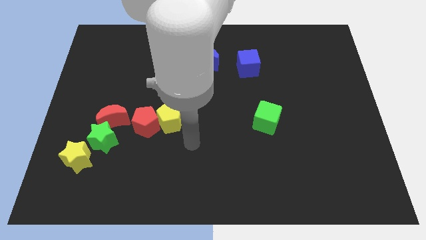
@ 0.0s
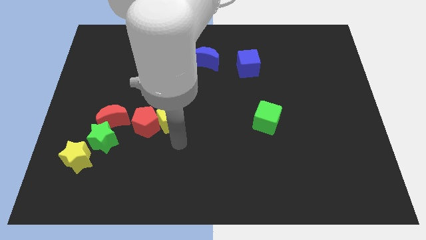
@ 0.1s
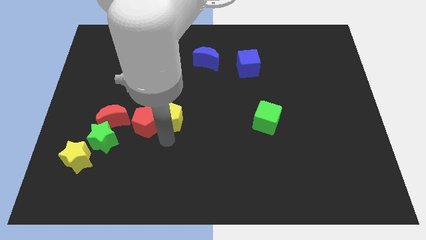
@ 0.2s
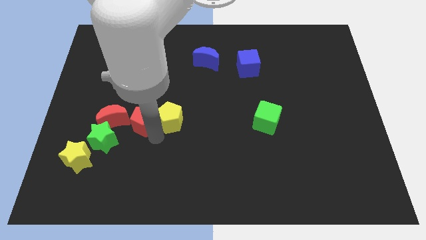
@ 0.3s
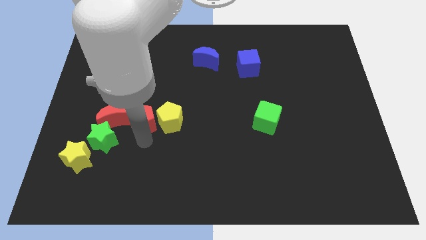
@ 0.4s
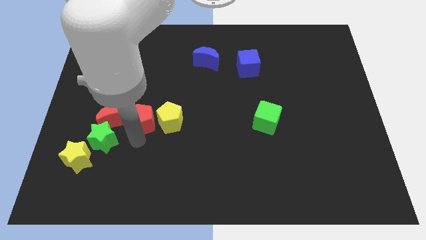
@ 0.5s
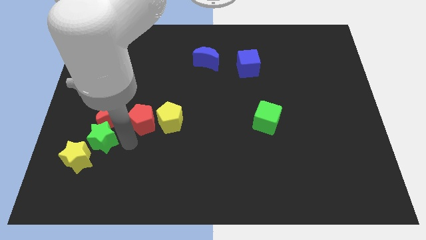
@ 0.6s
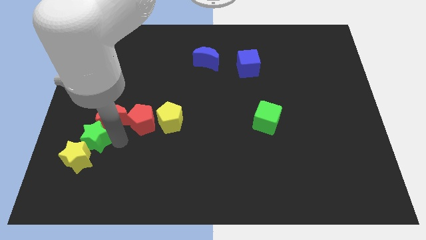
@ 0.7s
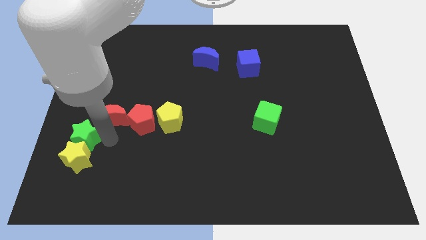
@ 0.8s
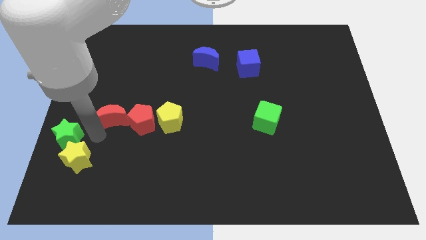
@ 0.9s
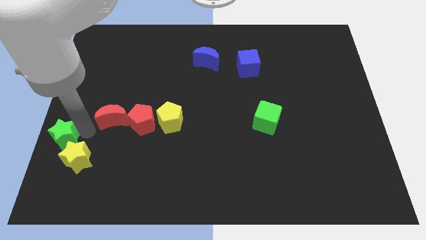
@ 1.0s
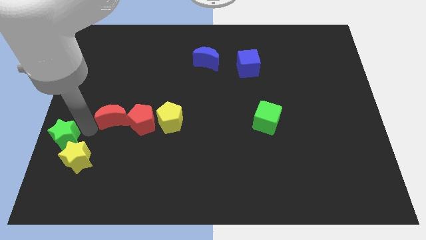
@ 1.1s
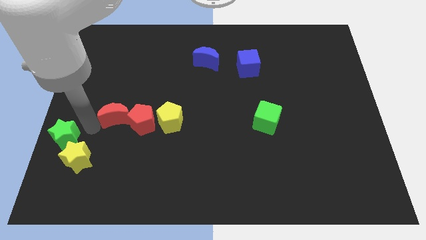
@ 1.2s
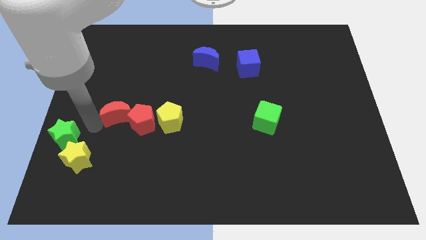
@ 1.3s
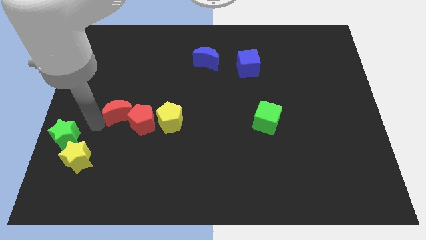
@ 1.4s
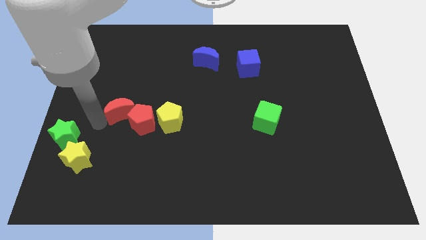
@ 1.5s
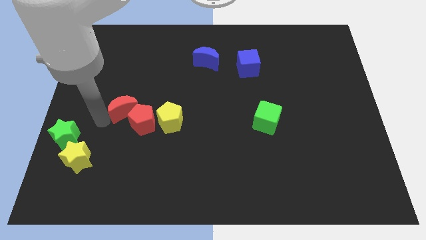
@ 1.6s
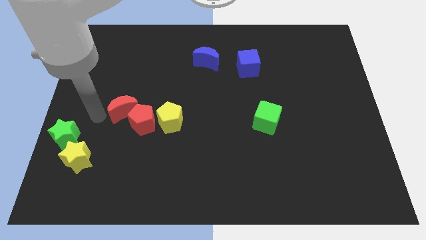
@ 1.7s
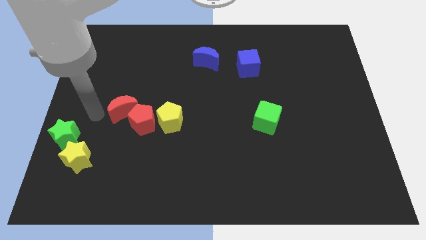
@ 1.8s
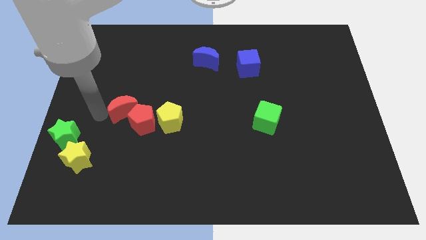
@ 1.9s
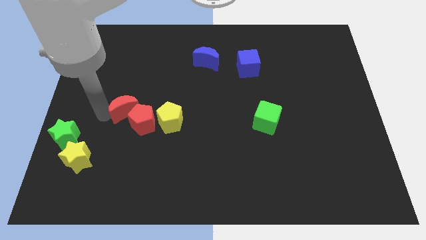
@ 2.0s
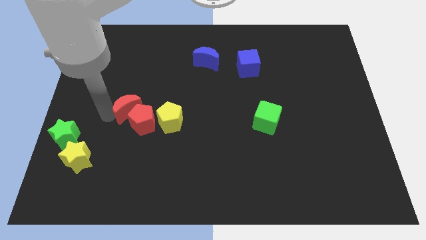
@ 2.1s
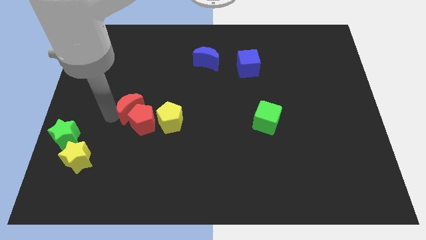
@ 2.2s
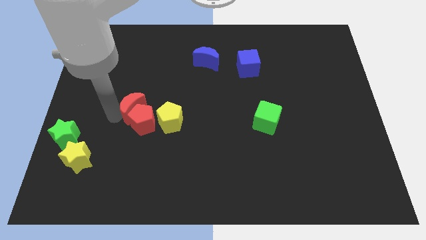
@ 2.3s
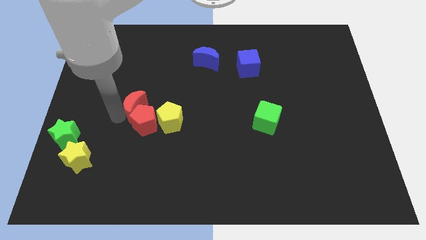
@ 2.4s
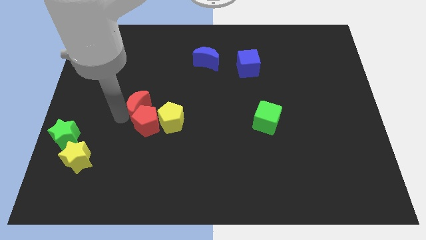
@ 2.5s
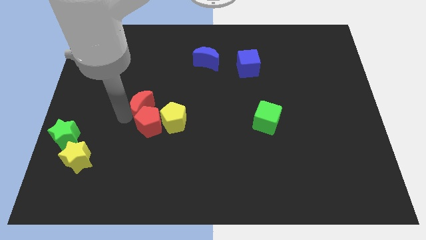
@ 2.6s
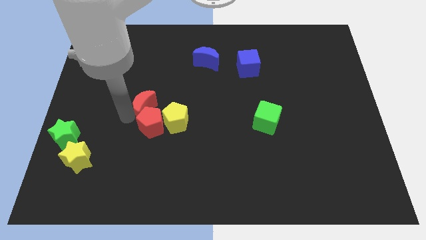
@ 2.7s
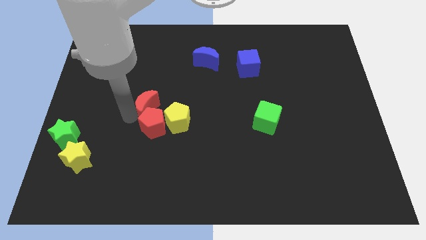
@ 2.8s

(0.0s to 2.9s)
slide the red moon slightly to the right

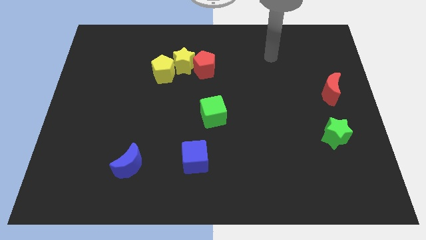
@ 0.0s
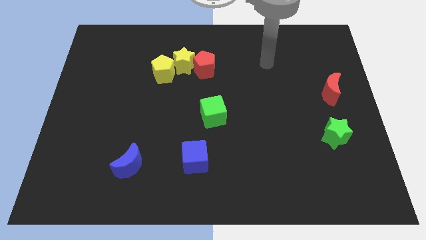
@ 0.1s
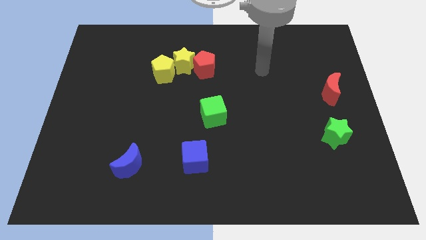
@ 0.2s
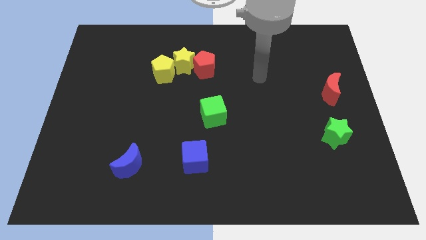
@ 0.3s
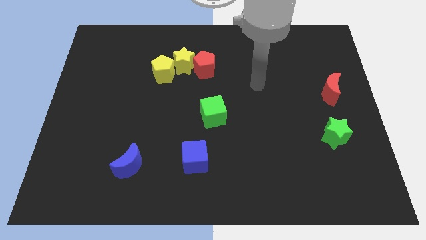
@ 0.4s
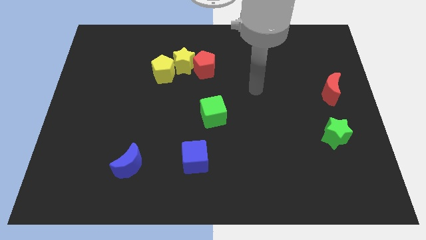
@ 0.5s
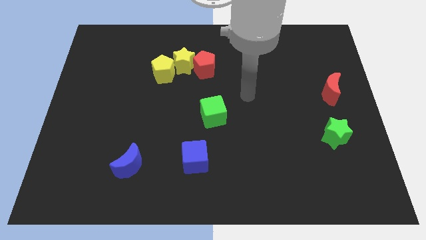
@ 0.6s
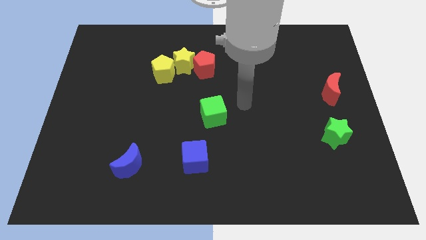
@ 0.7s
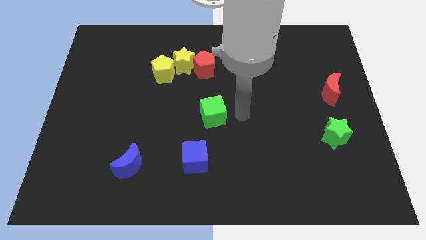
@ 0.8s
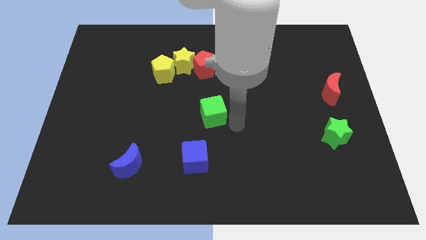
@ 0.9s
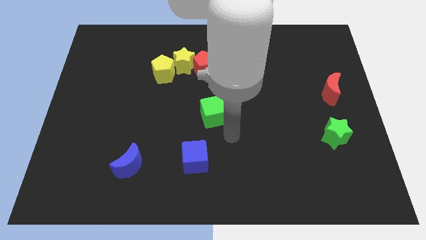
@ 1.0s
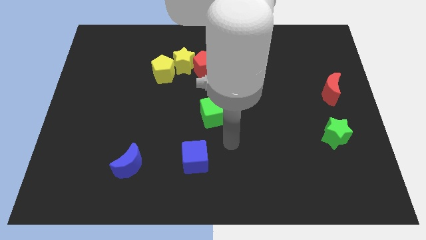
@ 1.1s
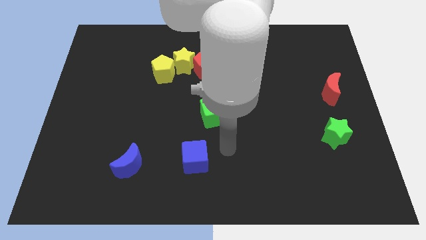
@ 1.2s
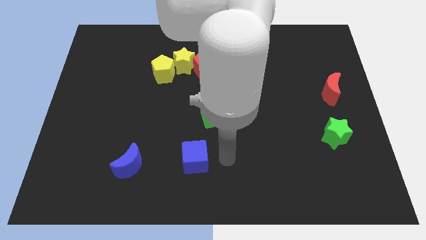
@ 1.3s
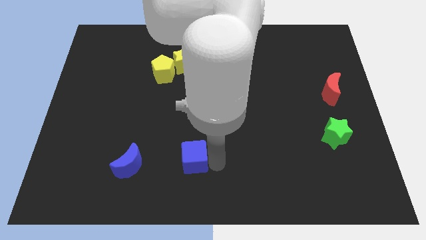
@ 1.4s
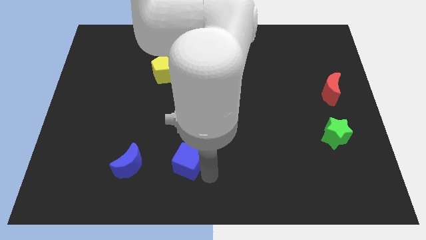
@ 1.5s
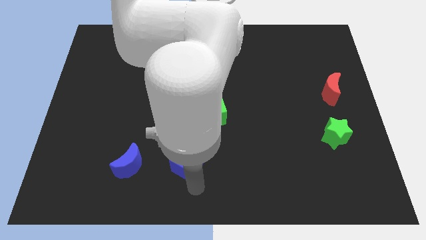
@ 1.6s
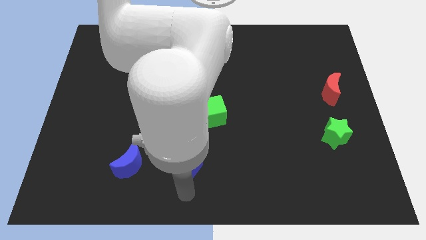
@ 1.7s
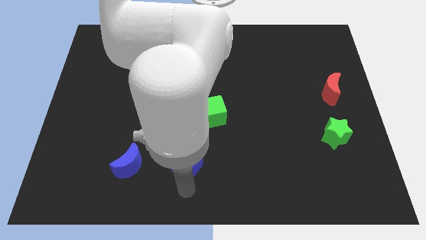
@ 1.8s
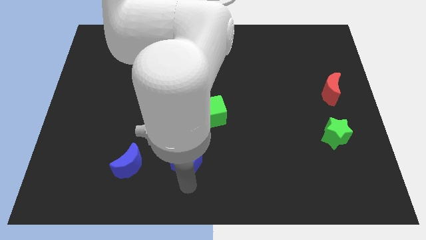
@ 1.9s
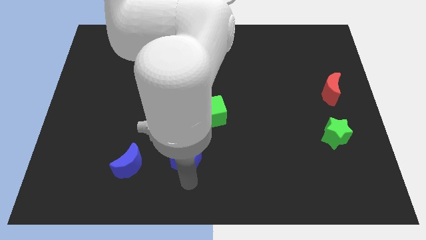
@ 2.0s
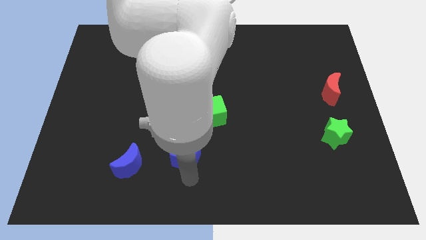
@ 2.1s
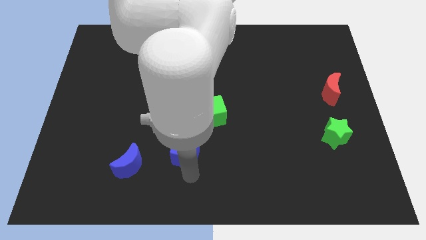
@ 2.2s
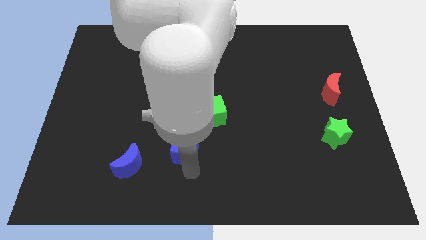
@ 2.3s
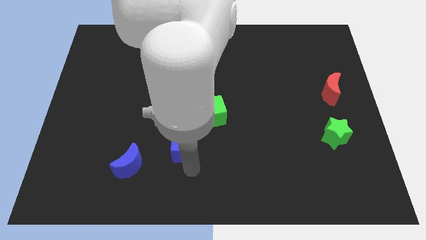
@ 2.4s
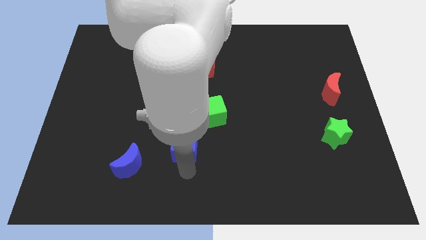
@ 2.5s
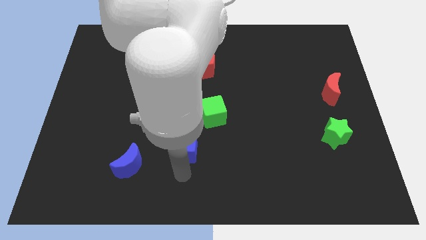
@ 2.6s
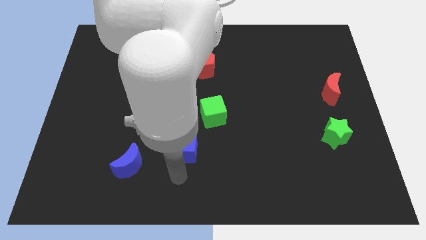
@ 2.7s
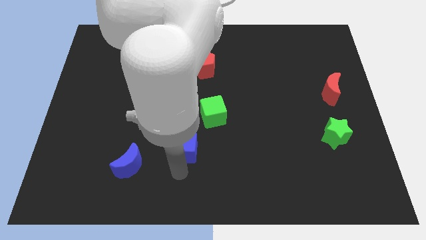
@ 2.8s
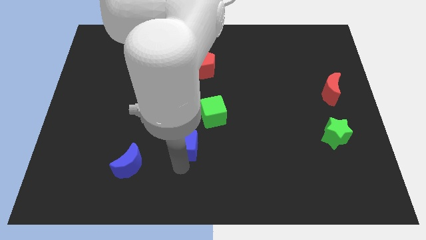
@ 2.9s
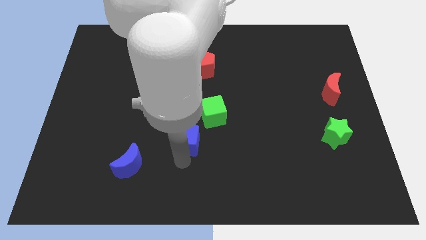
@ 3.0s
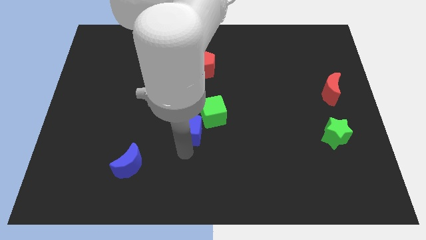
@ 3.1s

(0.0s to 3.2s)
move the blue cube slightly upwards

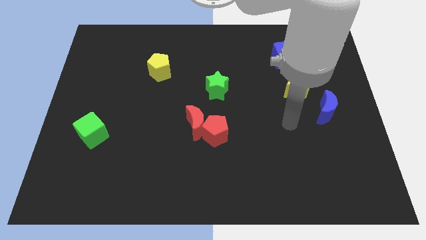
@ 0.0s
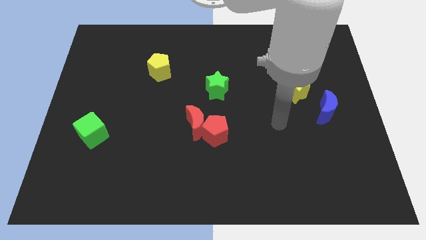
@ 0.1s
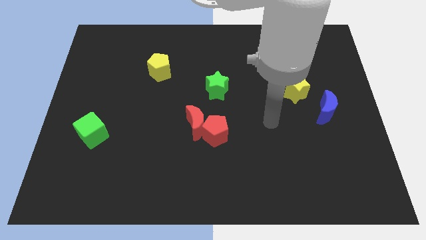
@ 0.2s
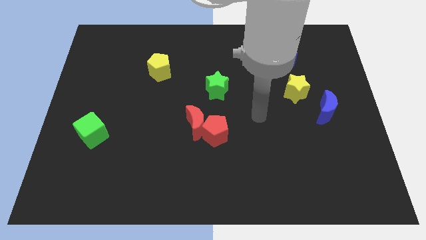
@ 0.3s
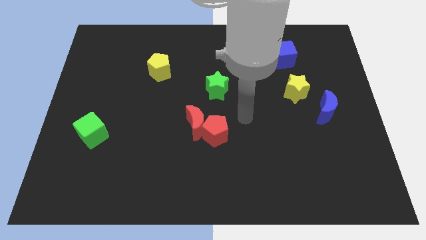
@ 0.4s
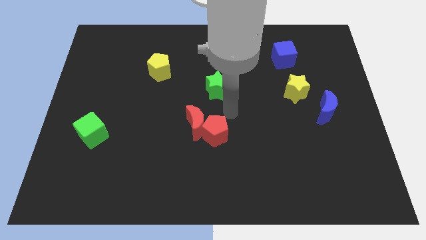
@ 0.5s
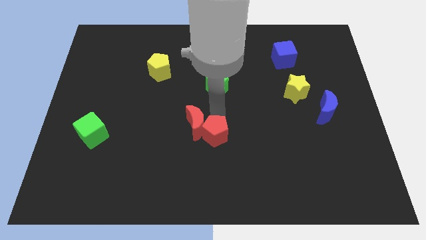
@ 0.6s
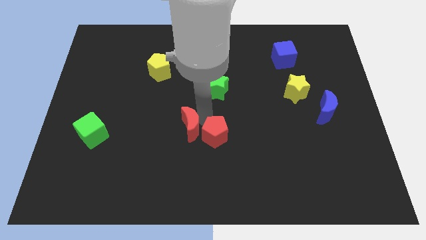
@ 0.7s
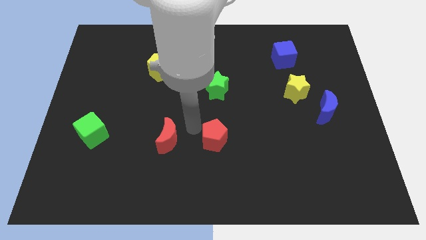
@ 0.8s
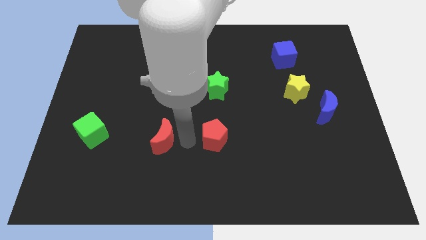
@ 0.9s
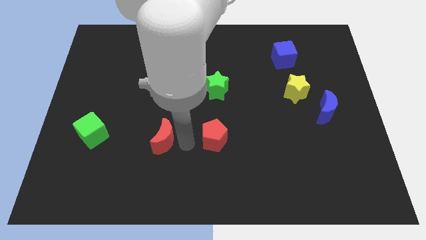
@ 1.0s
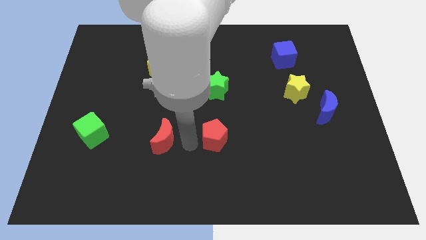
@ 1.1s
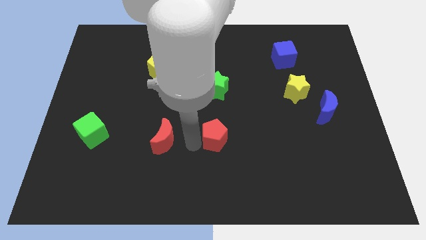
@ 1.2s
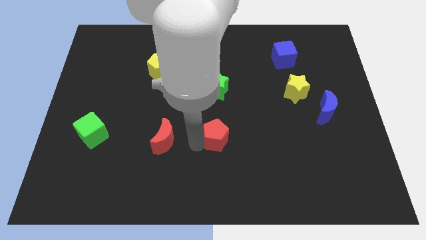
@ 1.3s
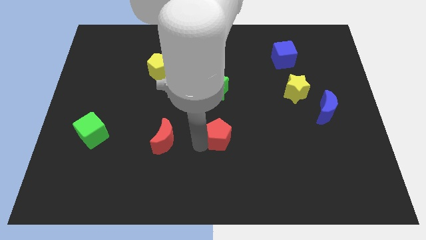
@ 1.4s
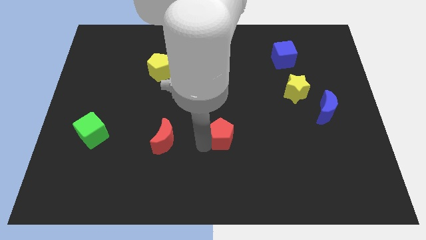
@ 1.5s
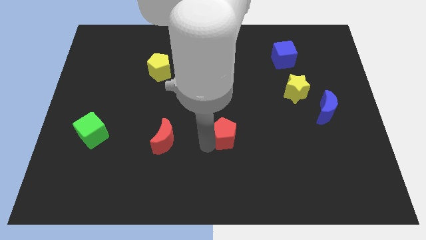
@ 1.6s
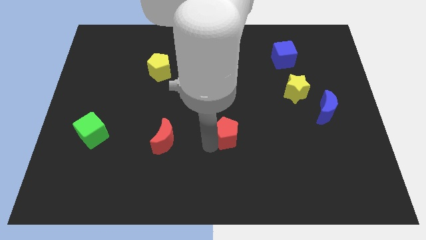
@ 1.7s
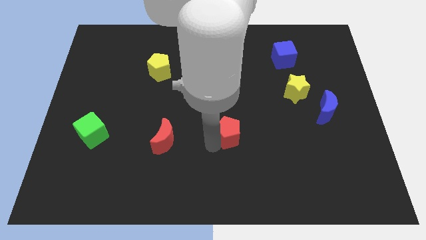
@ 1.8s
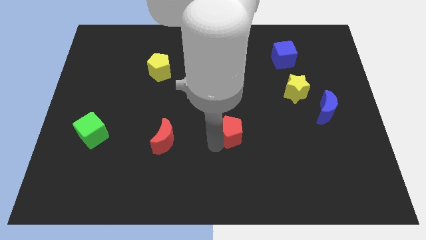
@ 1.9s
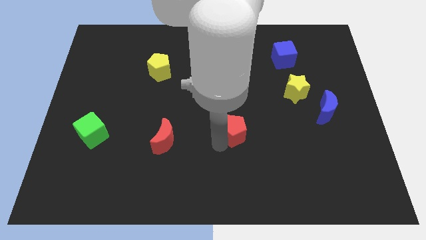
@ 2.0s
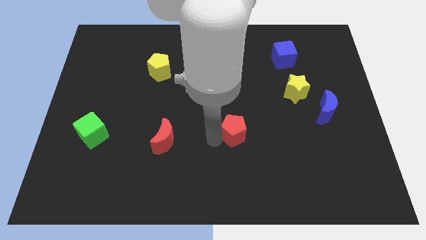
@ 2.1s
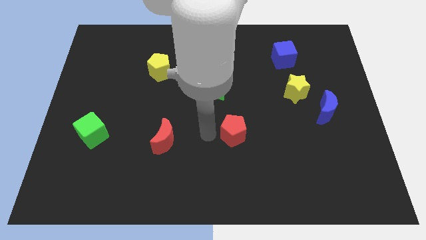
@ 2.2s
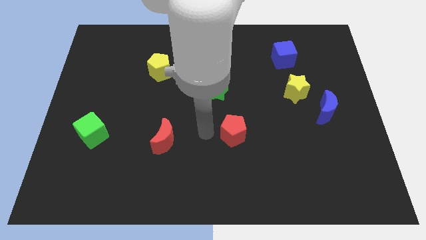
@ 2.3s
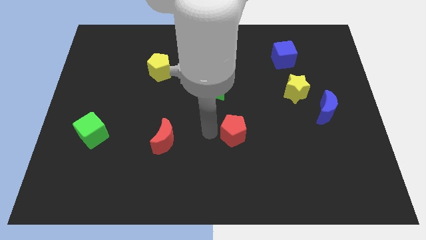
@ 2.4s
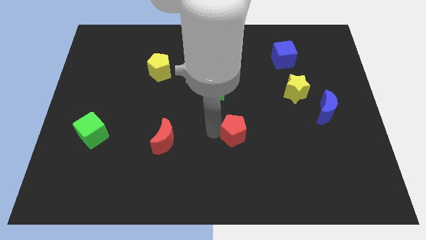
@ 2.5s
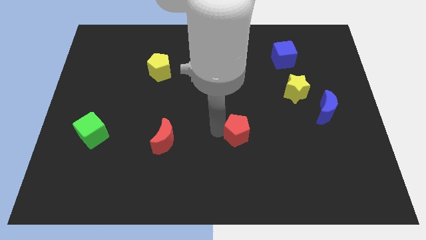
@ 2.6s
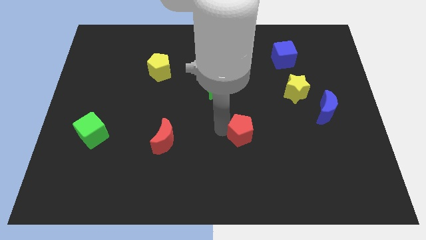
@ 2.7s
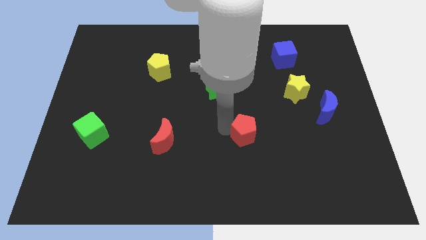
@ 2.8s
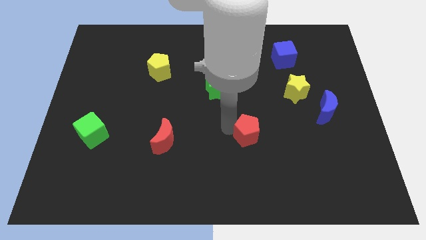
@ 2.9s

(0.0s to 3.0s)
slide the red pentagon to the right a little bit
